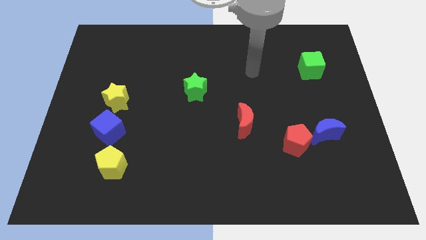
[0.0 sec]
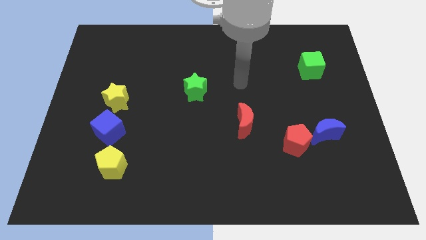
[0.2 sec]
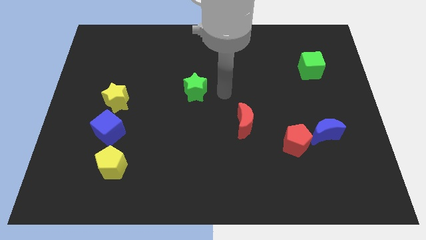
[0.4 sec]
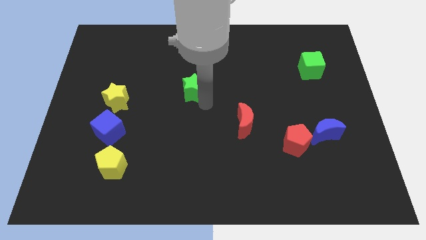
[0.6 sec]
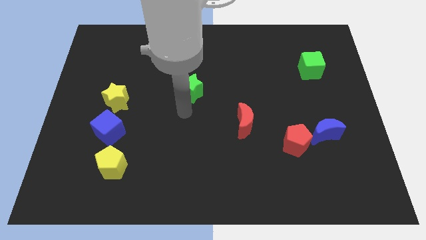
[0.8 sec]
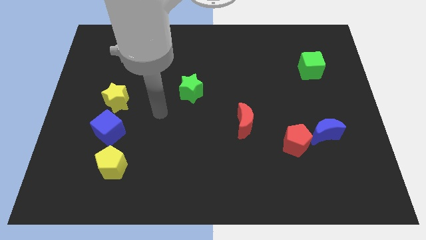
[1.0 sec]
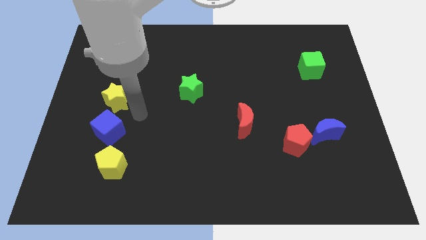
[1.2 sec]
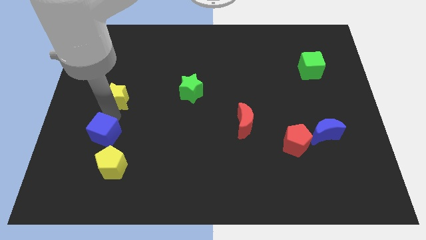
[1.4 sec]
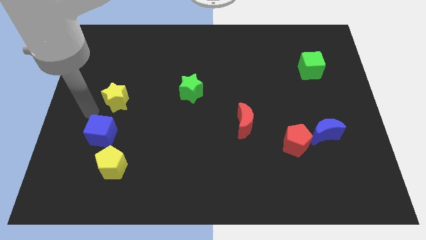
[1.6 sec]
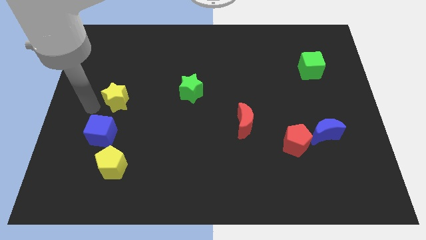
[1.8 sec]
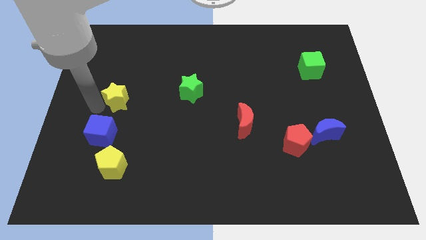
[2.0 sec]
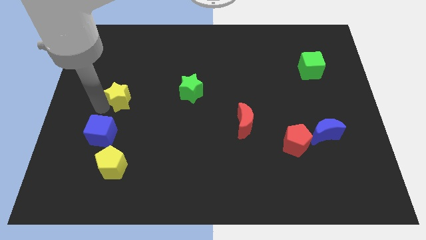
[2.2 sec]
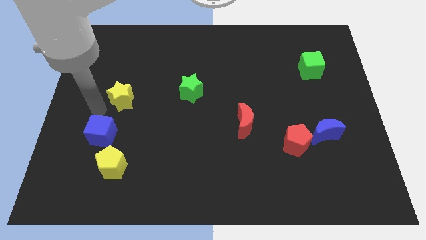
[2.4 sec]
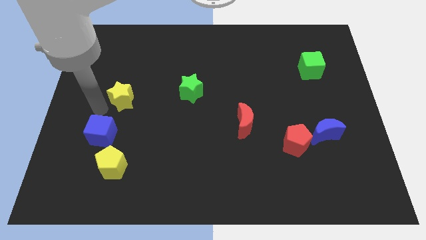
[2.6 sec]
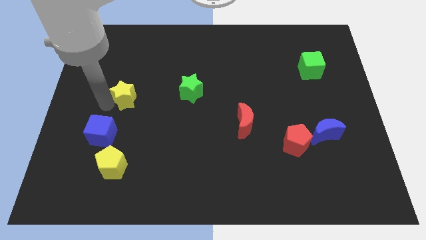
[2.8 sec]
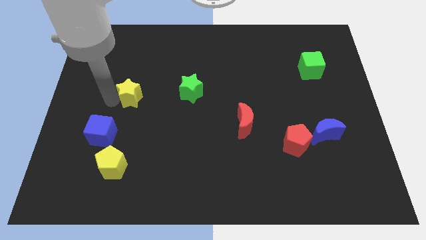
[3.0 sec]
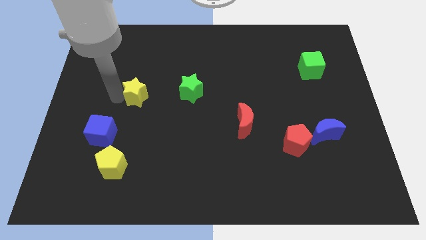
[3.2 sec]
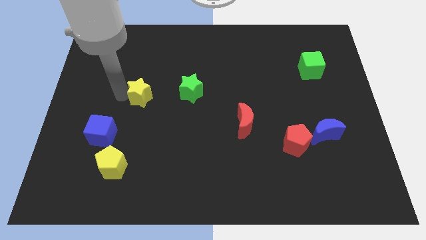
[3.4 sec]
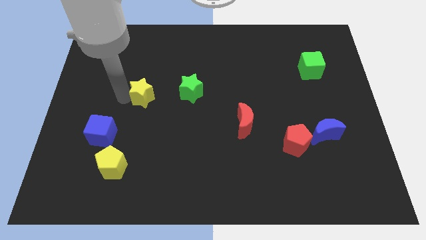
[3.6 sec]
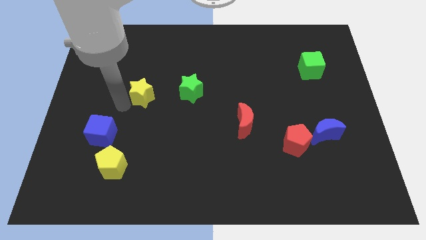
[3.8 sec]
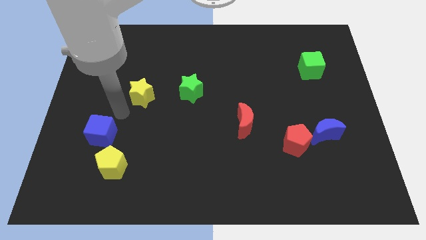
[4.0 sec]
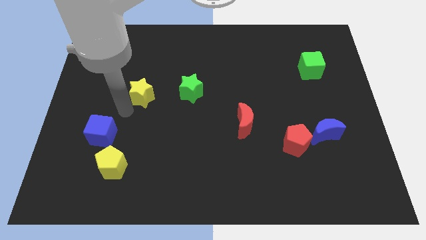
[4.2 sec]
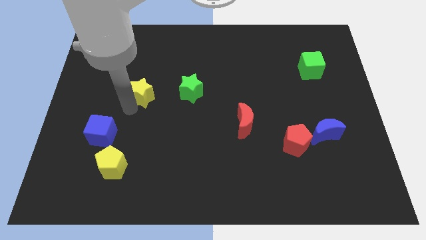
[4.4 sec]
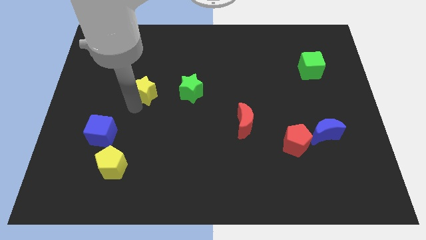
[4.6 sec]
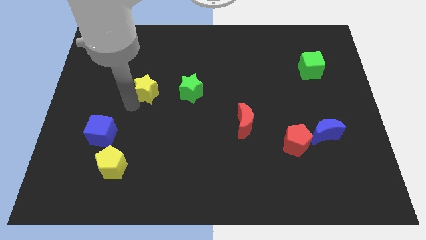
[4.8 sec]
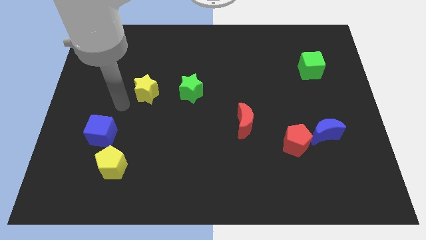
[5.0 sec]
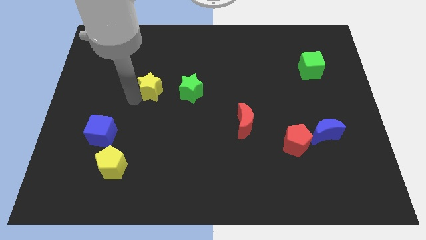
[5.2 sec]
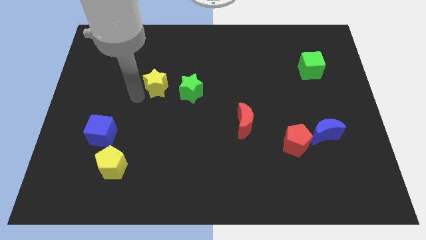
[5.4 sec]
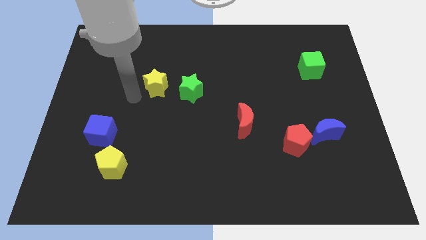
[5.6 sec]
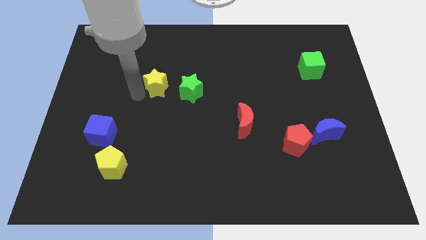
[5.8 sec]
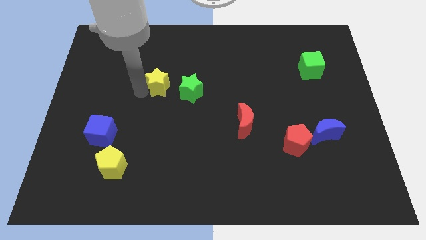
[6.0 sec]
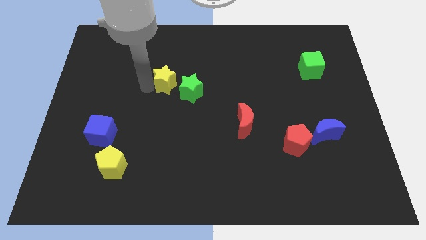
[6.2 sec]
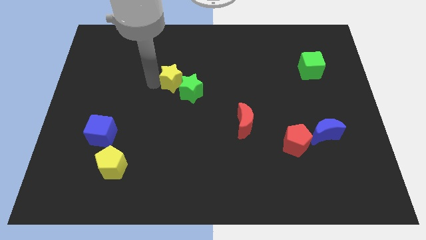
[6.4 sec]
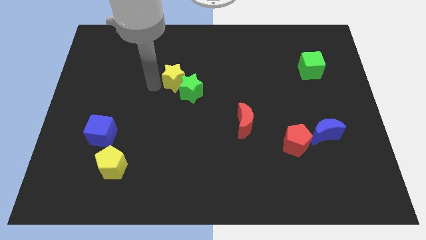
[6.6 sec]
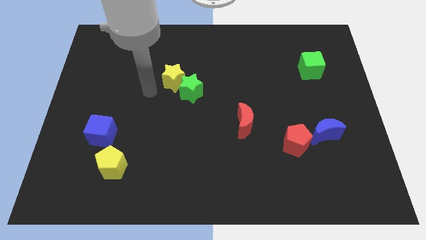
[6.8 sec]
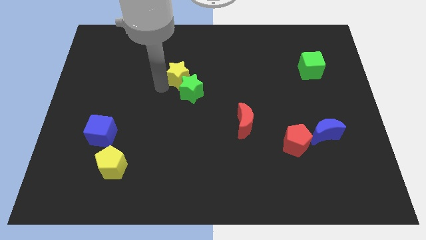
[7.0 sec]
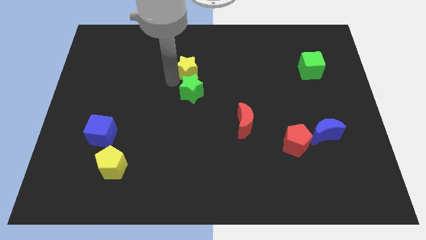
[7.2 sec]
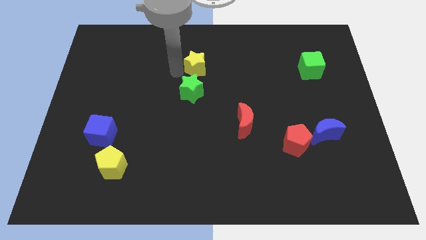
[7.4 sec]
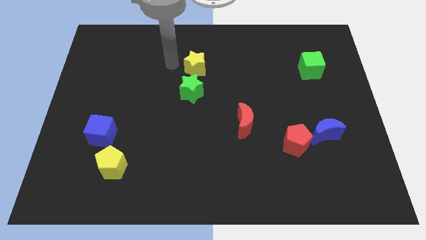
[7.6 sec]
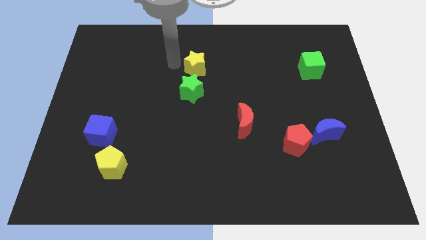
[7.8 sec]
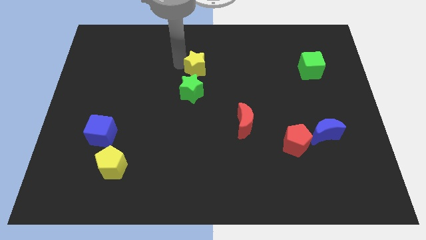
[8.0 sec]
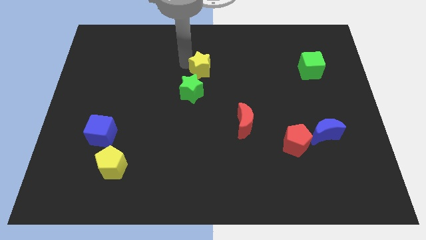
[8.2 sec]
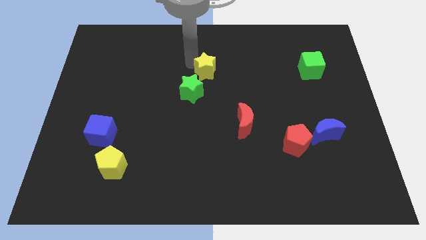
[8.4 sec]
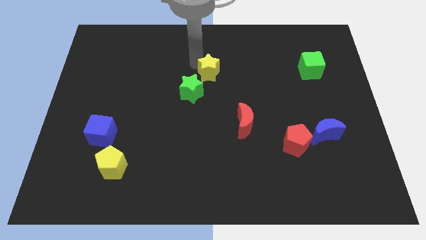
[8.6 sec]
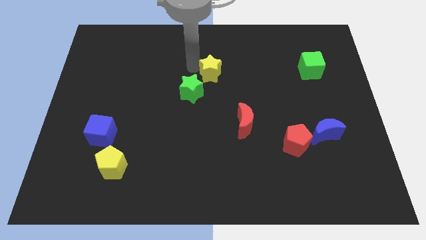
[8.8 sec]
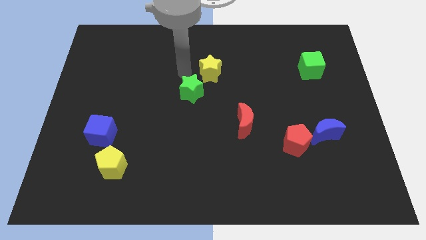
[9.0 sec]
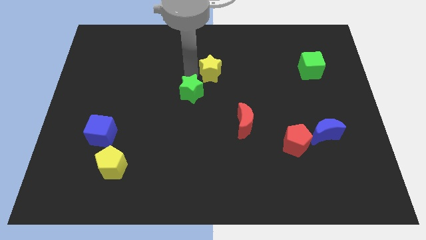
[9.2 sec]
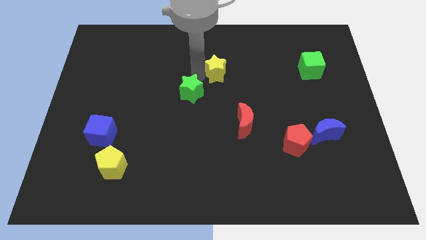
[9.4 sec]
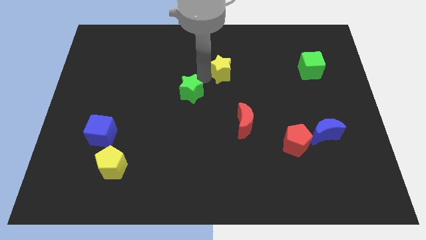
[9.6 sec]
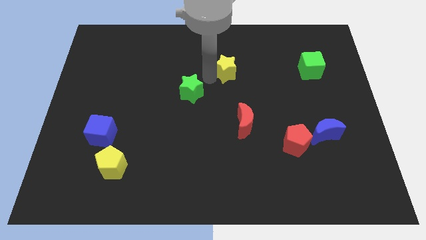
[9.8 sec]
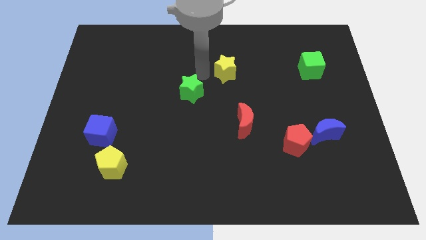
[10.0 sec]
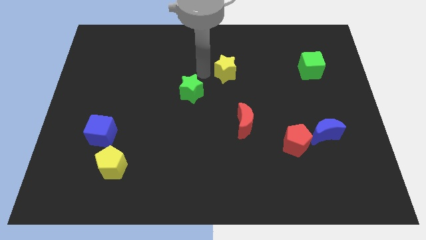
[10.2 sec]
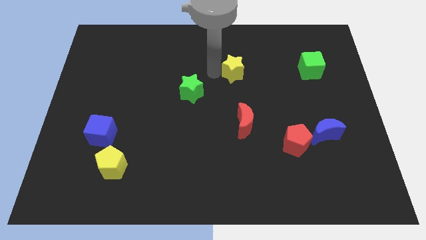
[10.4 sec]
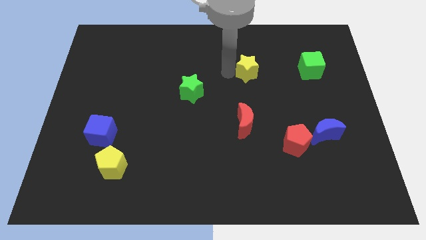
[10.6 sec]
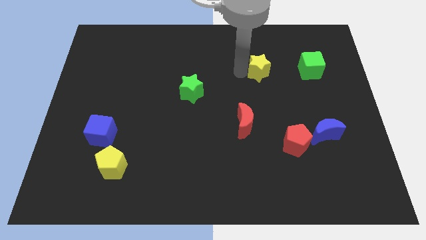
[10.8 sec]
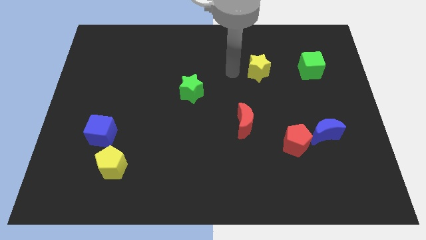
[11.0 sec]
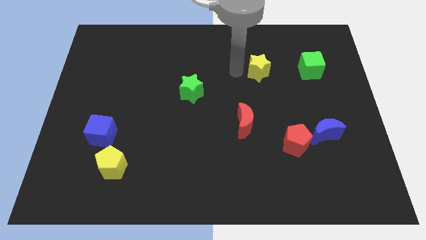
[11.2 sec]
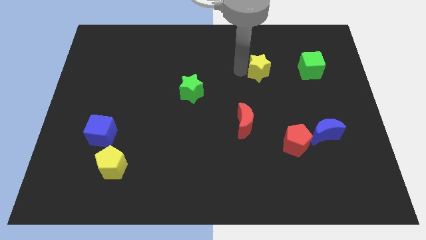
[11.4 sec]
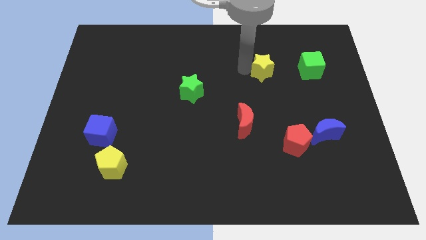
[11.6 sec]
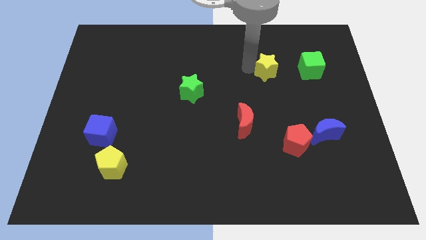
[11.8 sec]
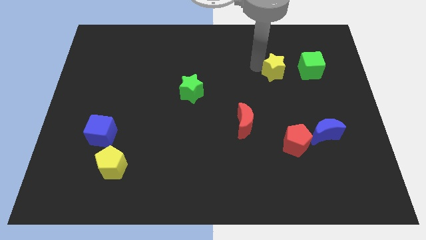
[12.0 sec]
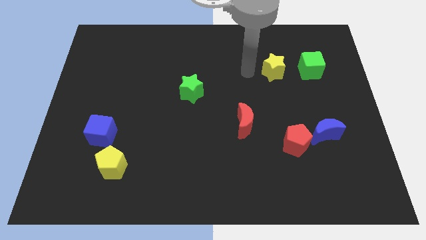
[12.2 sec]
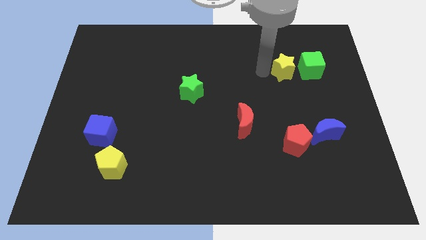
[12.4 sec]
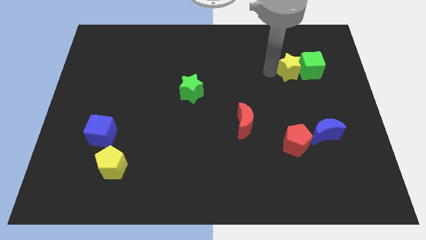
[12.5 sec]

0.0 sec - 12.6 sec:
move the yellow star next to the green cube

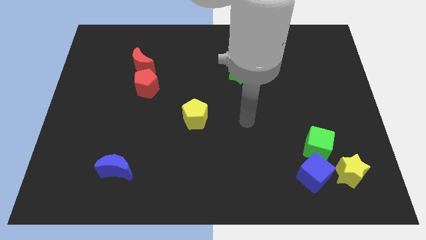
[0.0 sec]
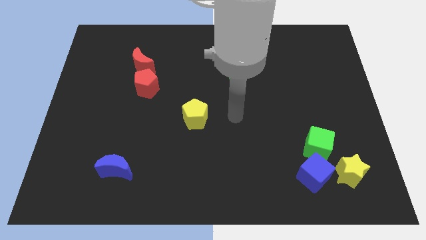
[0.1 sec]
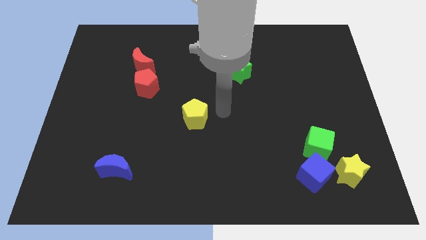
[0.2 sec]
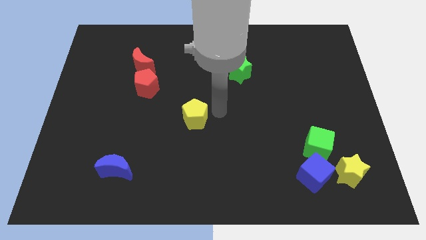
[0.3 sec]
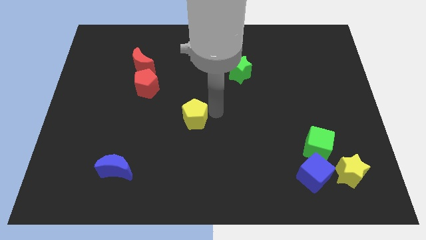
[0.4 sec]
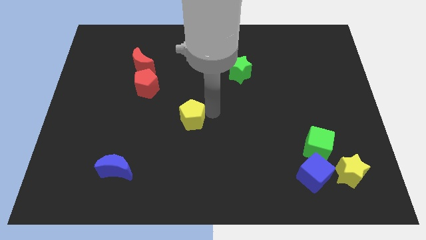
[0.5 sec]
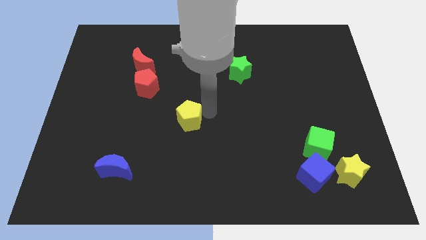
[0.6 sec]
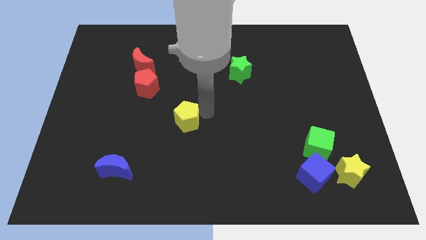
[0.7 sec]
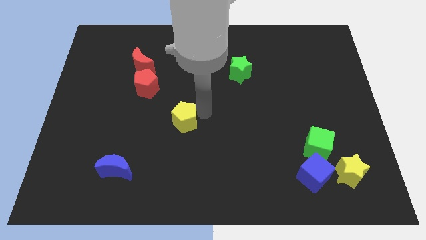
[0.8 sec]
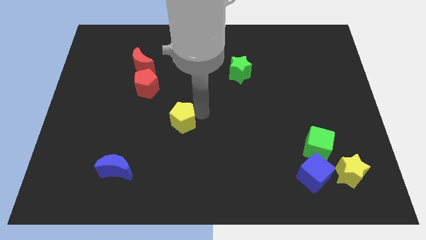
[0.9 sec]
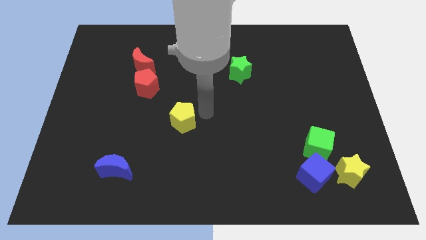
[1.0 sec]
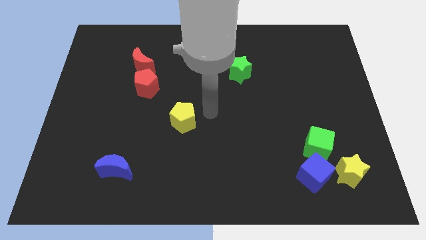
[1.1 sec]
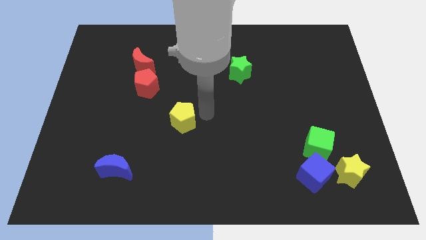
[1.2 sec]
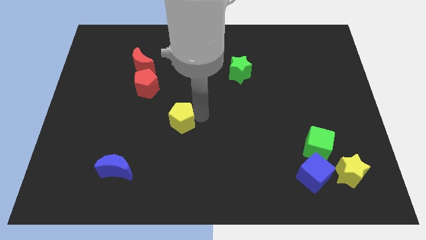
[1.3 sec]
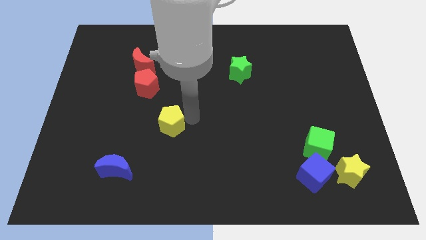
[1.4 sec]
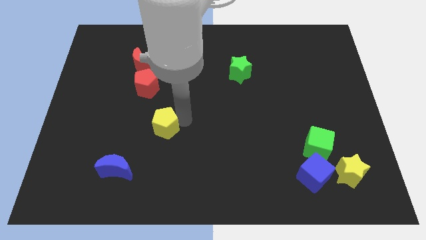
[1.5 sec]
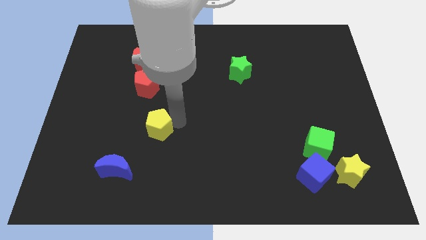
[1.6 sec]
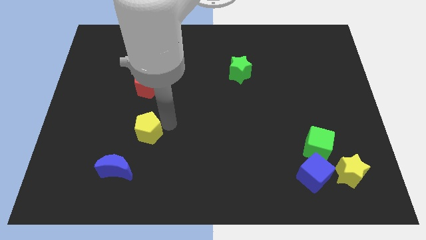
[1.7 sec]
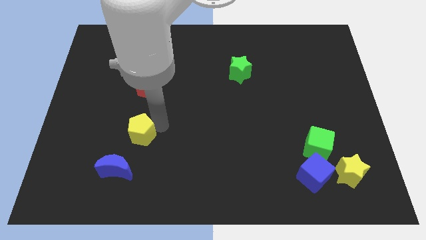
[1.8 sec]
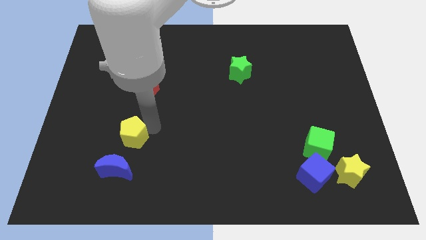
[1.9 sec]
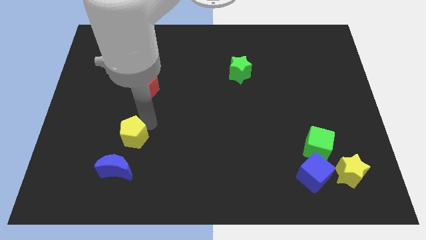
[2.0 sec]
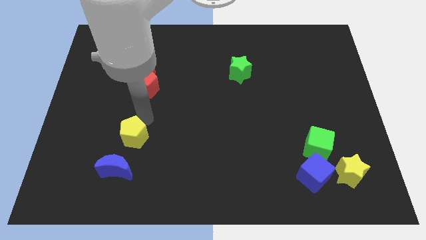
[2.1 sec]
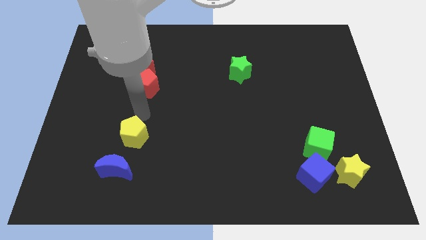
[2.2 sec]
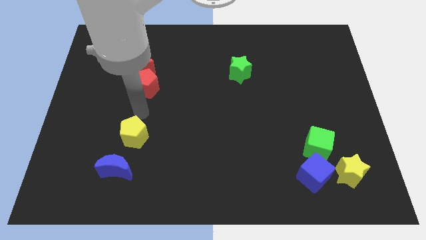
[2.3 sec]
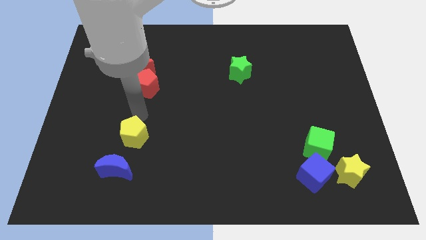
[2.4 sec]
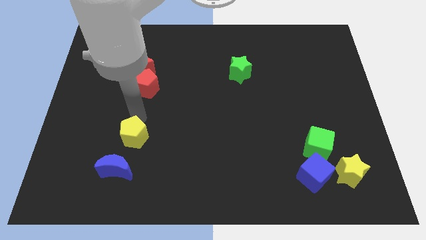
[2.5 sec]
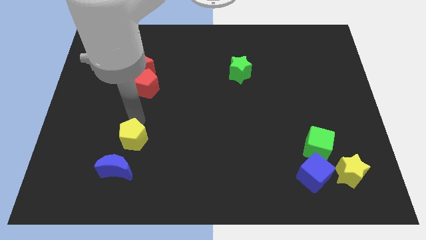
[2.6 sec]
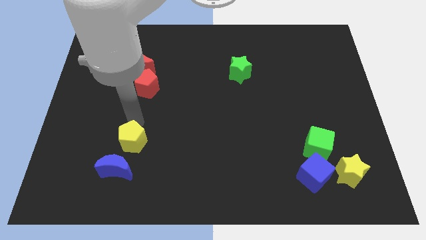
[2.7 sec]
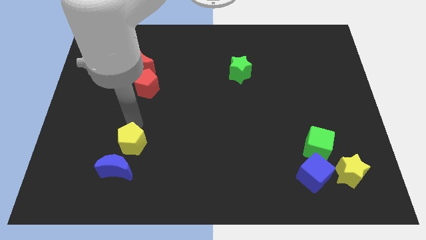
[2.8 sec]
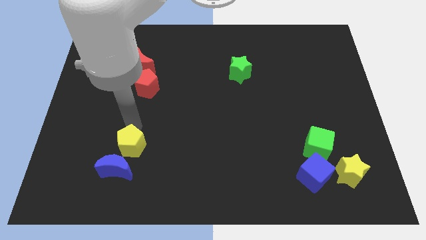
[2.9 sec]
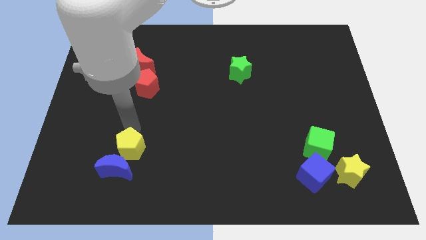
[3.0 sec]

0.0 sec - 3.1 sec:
slide the yellow pentagon next to the blue moon
